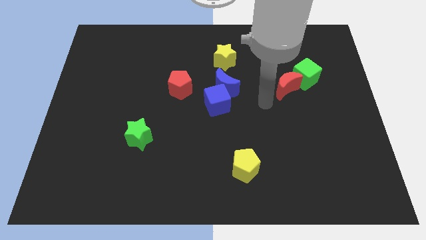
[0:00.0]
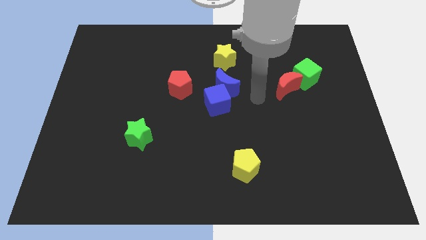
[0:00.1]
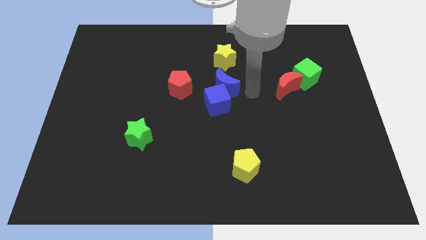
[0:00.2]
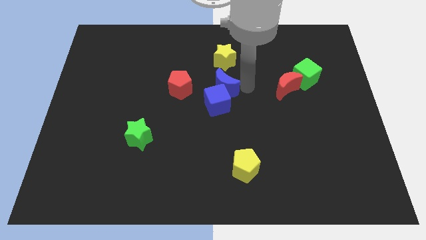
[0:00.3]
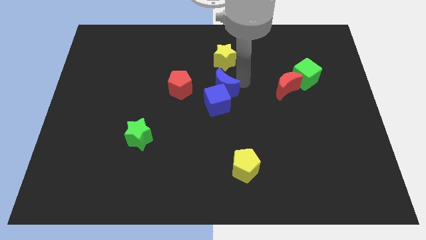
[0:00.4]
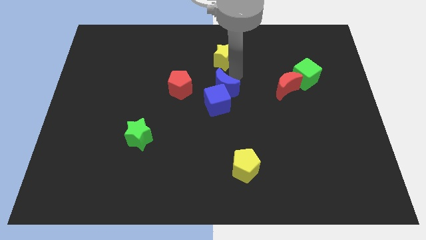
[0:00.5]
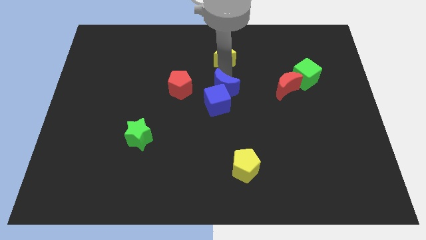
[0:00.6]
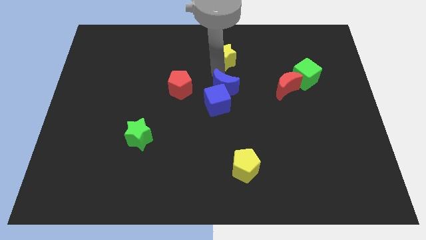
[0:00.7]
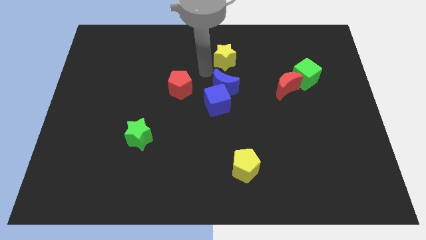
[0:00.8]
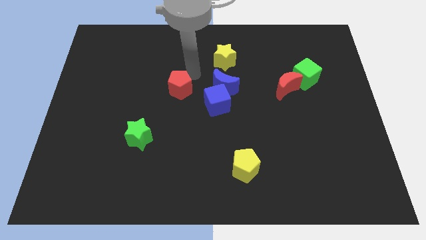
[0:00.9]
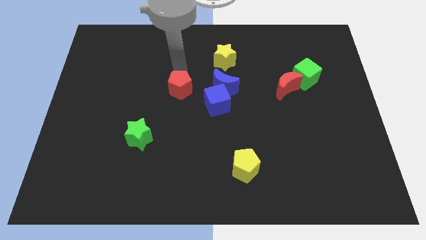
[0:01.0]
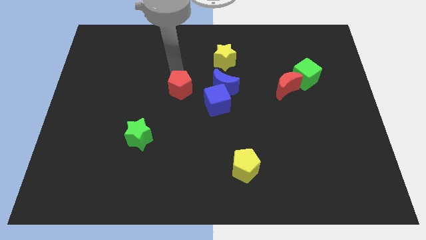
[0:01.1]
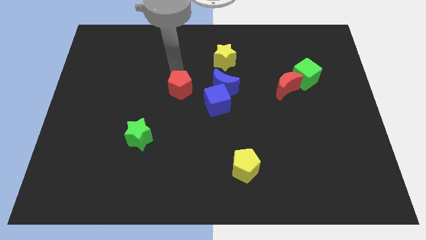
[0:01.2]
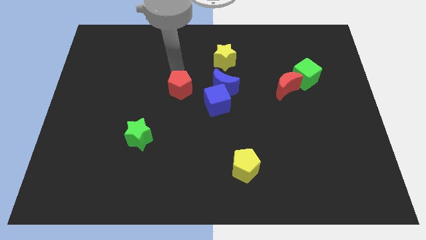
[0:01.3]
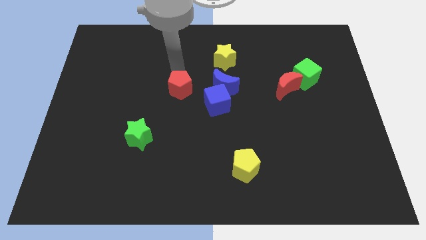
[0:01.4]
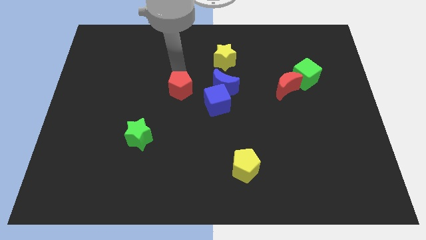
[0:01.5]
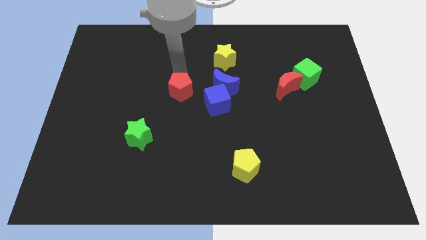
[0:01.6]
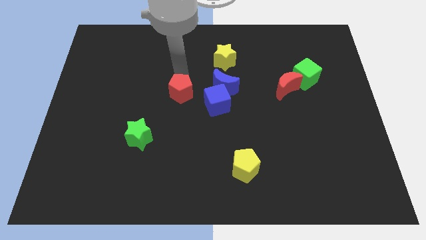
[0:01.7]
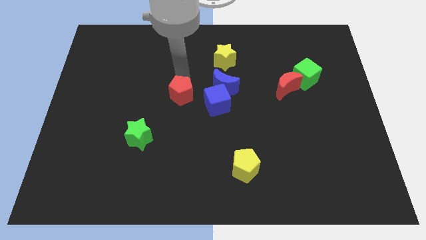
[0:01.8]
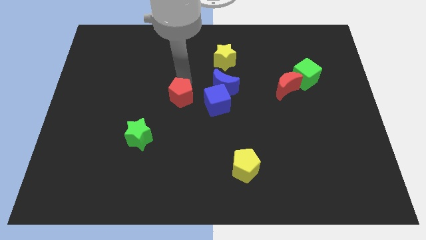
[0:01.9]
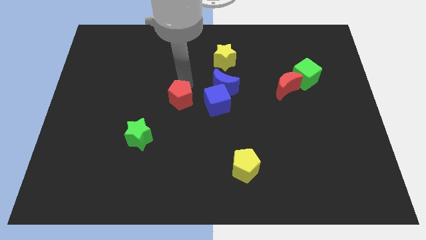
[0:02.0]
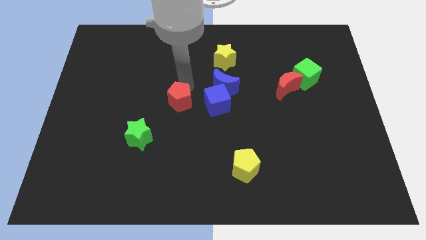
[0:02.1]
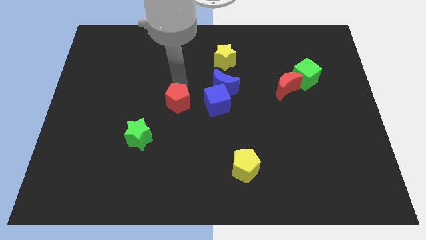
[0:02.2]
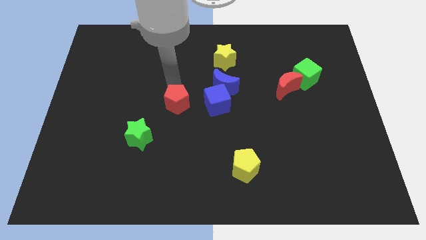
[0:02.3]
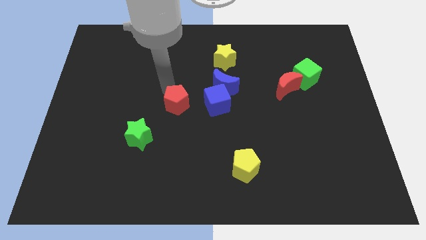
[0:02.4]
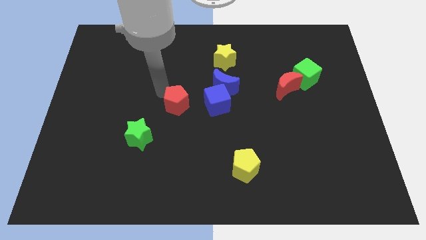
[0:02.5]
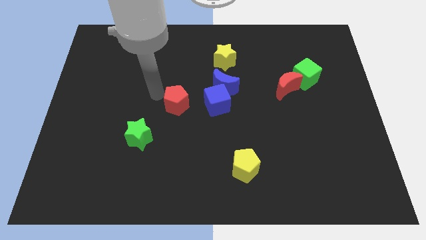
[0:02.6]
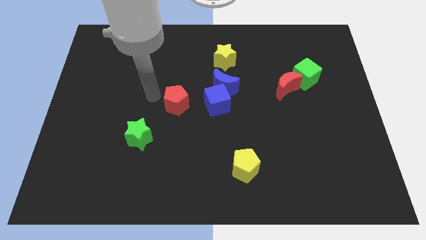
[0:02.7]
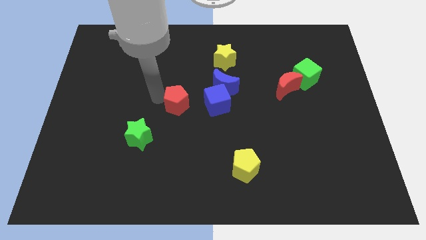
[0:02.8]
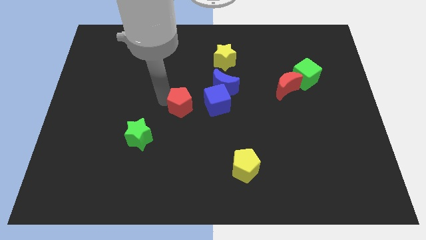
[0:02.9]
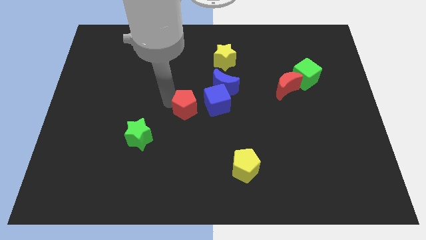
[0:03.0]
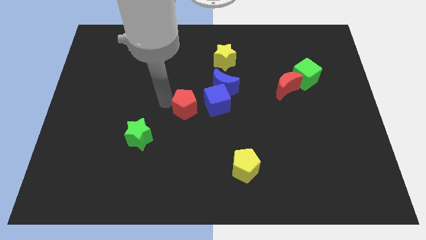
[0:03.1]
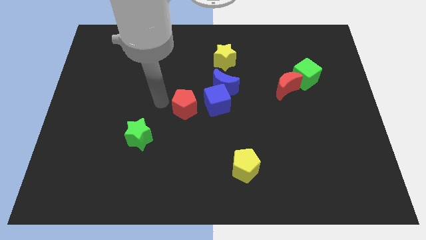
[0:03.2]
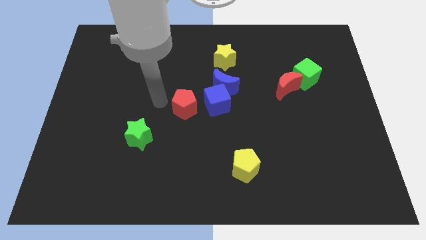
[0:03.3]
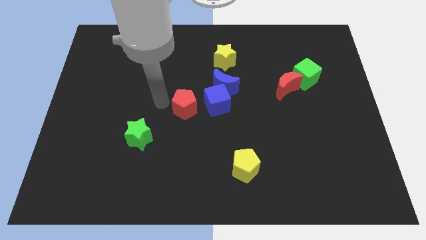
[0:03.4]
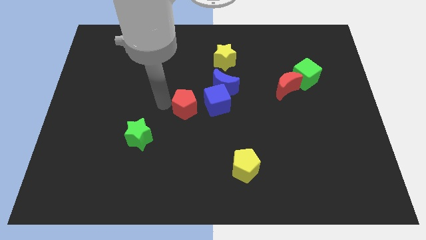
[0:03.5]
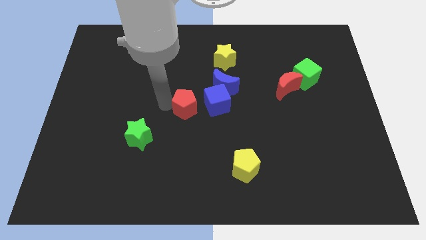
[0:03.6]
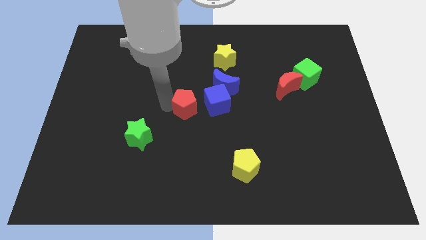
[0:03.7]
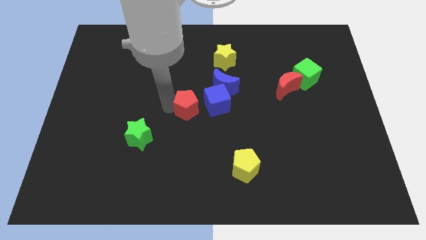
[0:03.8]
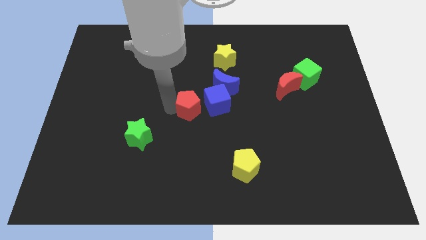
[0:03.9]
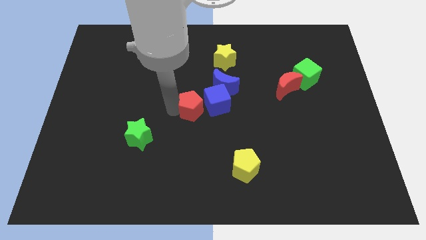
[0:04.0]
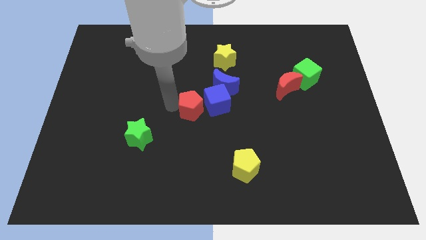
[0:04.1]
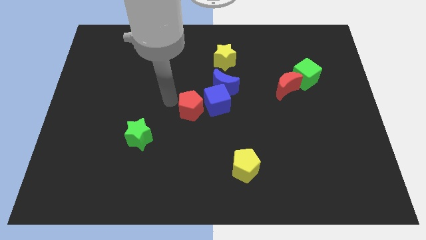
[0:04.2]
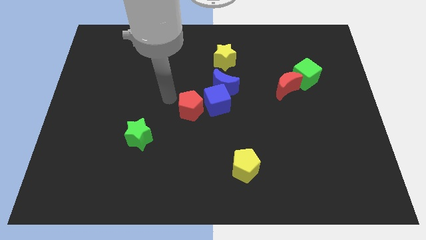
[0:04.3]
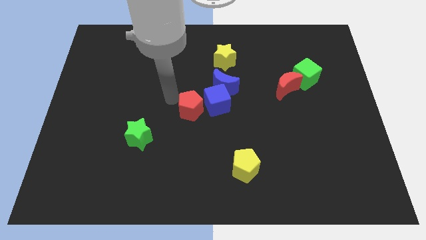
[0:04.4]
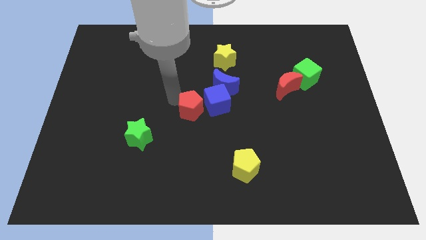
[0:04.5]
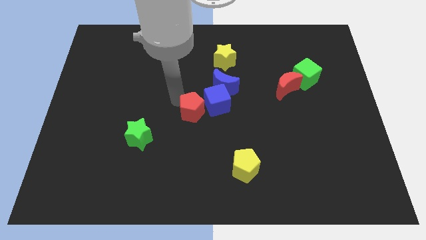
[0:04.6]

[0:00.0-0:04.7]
push the red pentagon a little bit down and right

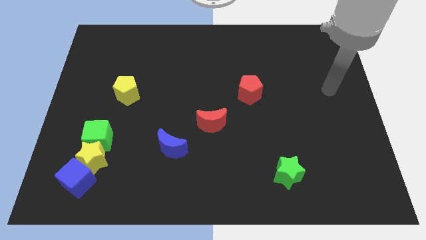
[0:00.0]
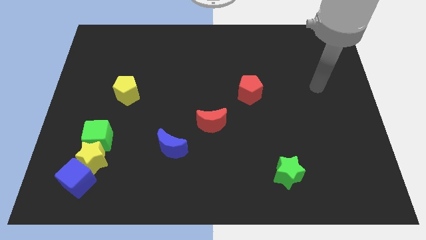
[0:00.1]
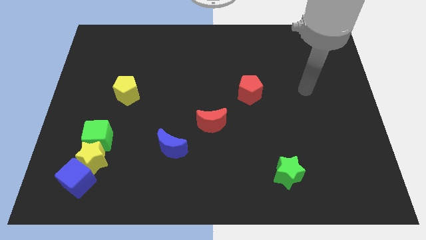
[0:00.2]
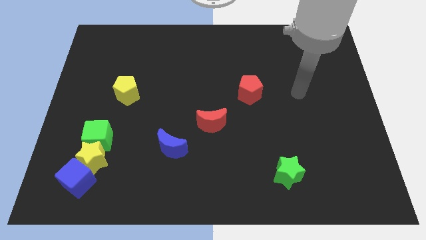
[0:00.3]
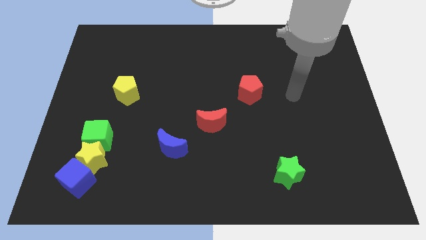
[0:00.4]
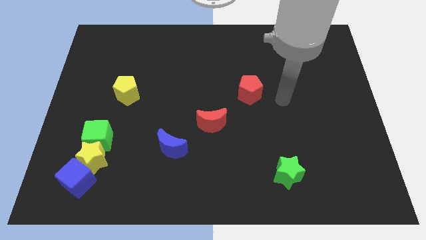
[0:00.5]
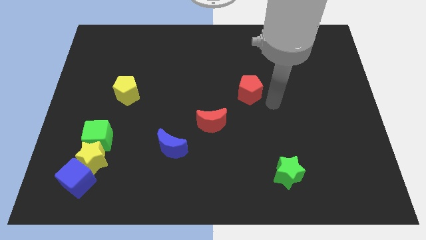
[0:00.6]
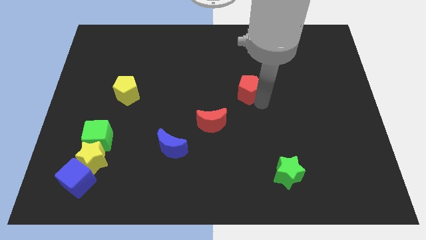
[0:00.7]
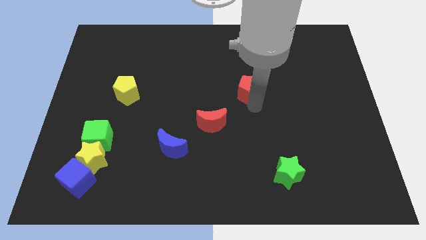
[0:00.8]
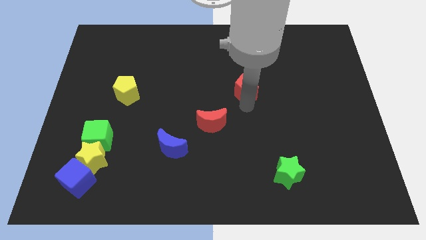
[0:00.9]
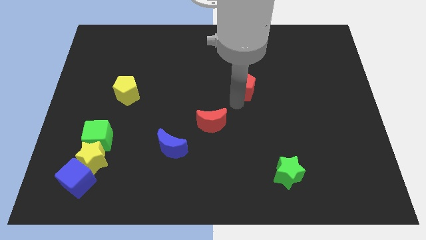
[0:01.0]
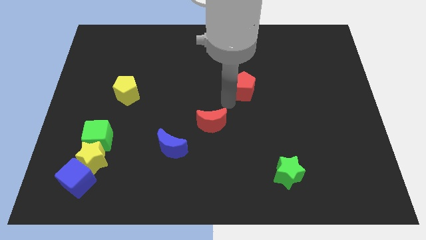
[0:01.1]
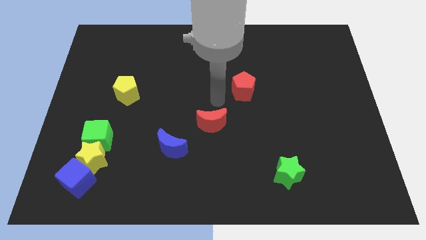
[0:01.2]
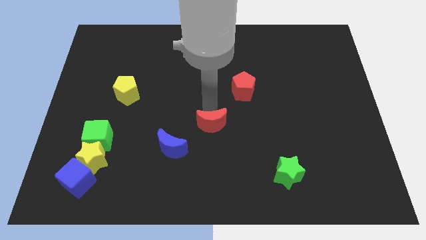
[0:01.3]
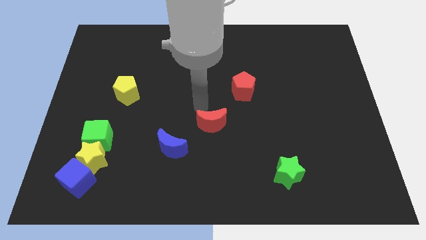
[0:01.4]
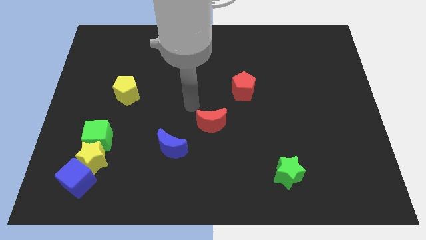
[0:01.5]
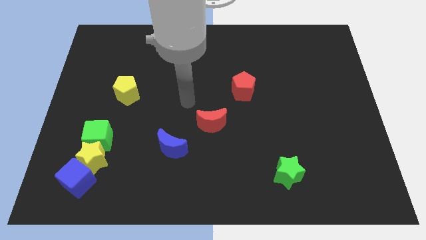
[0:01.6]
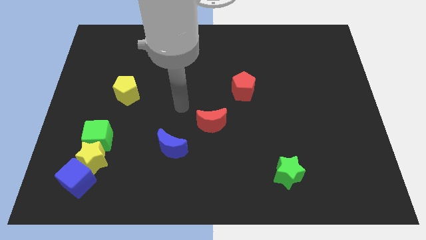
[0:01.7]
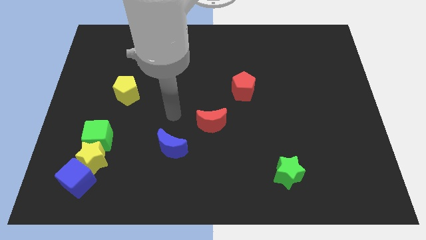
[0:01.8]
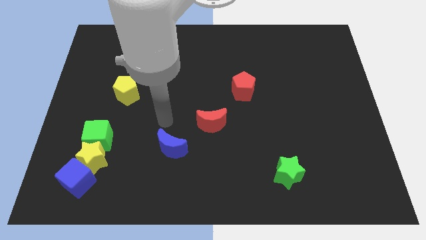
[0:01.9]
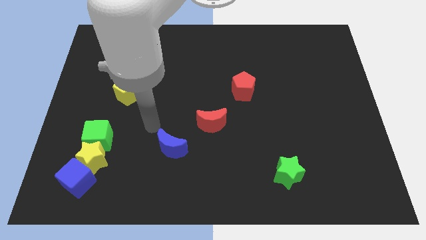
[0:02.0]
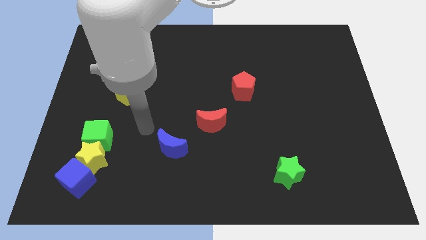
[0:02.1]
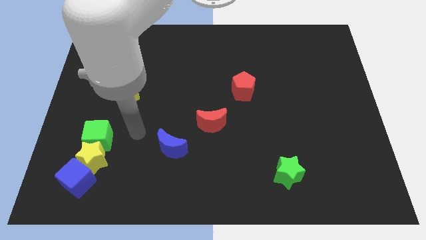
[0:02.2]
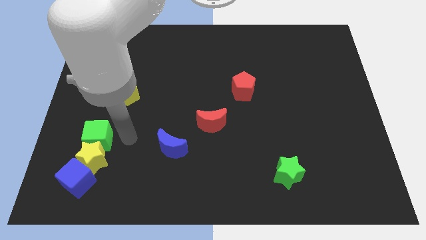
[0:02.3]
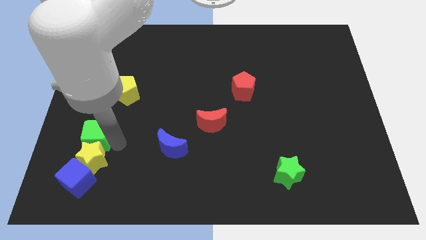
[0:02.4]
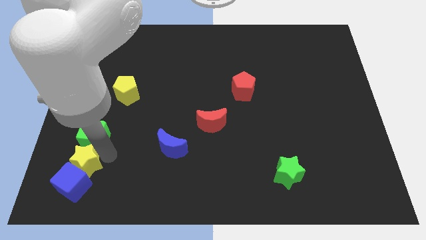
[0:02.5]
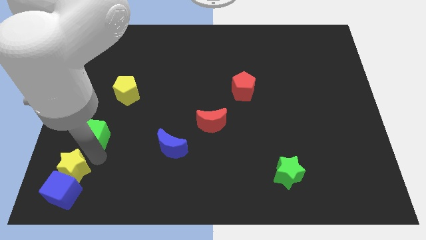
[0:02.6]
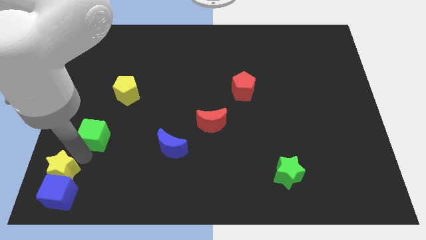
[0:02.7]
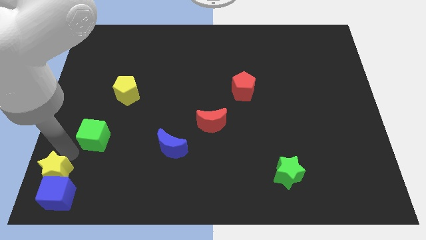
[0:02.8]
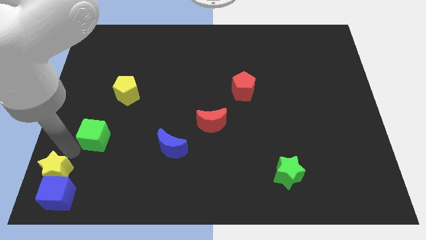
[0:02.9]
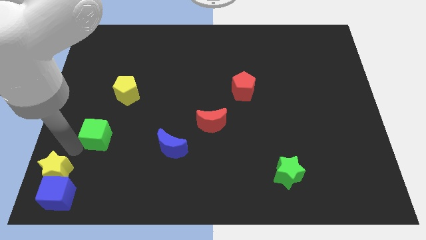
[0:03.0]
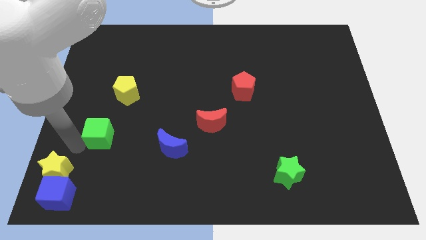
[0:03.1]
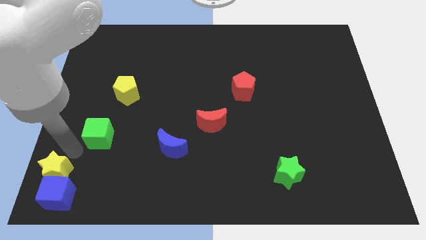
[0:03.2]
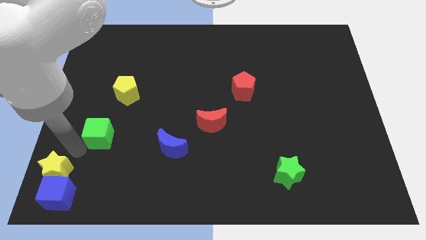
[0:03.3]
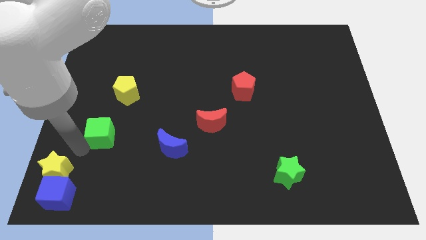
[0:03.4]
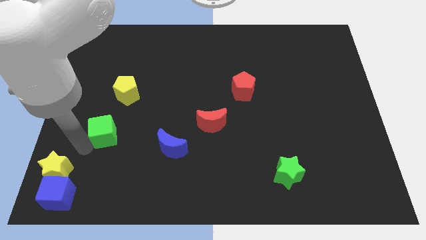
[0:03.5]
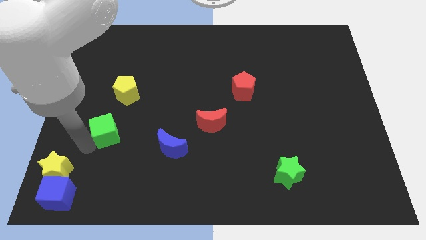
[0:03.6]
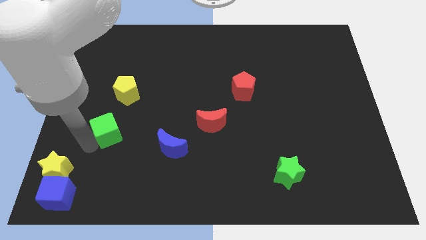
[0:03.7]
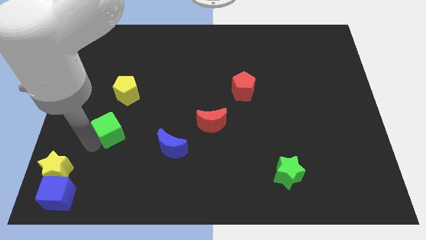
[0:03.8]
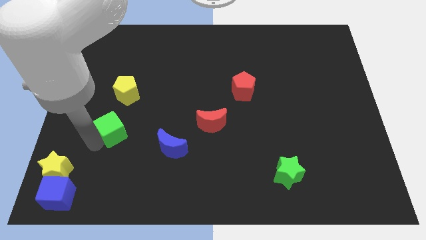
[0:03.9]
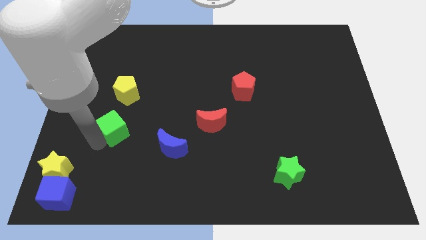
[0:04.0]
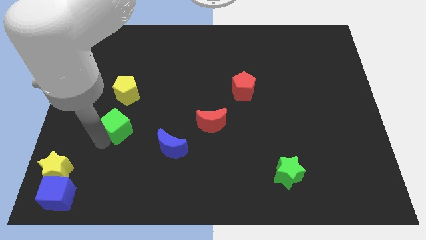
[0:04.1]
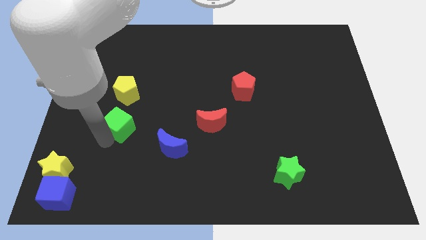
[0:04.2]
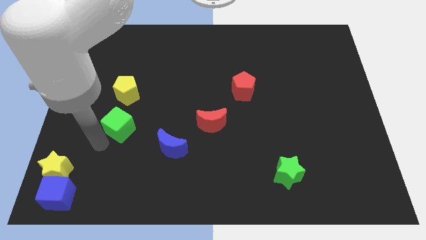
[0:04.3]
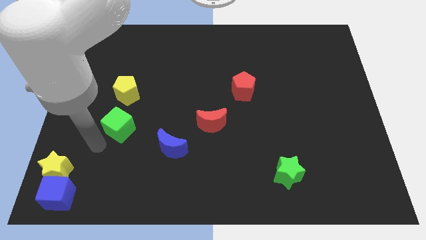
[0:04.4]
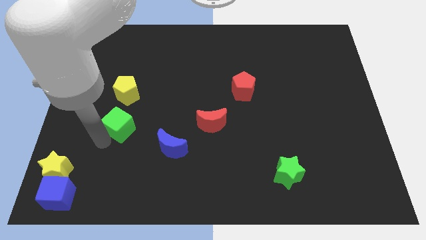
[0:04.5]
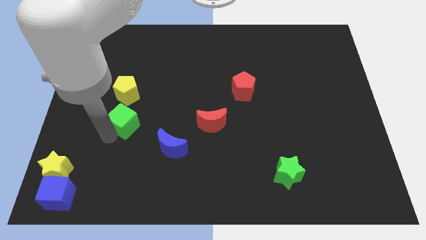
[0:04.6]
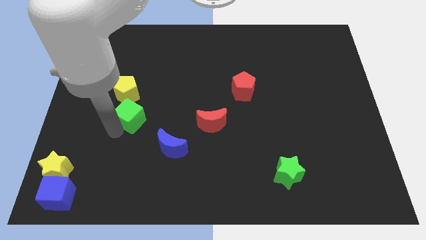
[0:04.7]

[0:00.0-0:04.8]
slide the green cube slightly up and to the right diagonally
